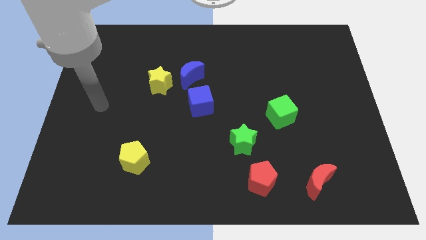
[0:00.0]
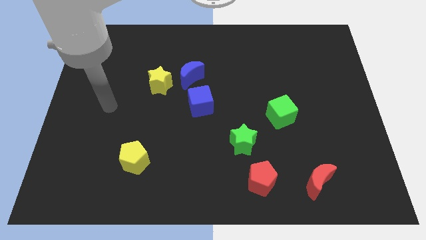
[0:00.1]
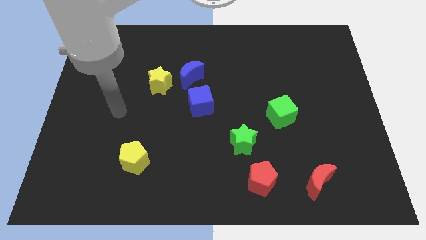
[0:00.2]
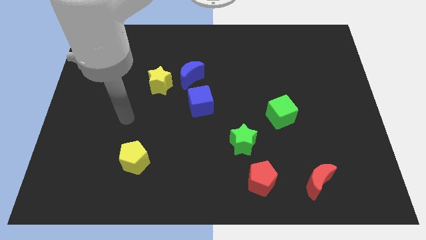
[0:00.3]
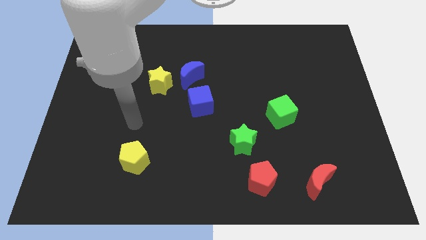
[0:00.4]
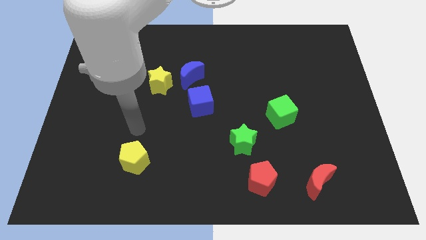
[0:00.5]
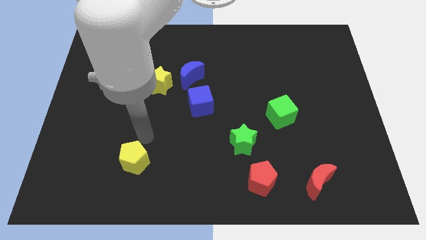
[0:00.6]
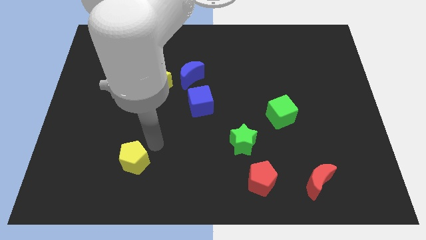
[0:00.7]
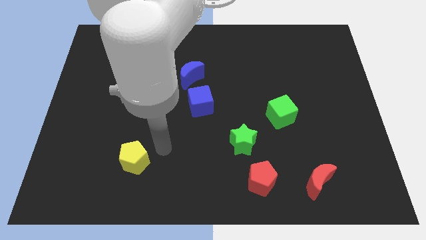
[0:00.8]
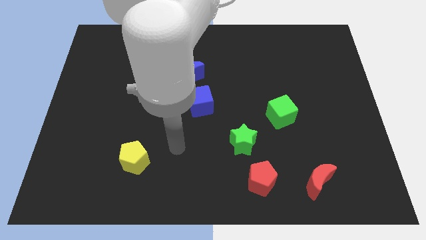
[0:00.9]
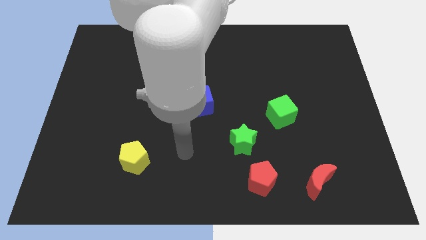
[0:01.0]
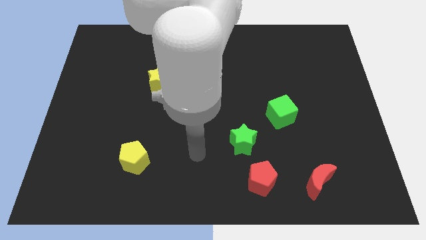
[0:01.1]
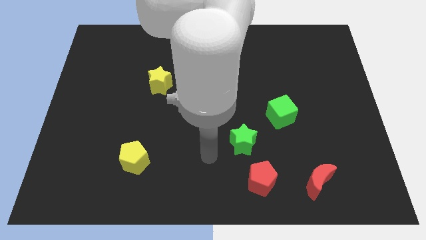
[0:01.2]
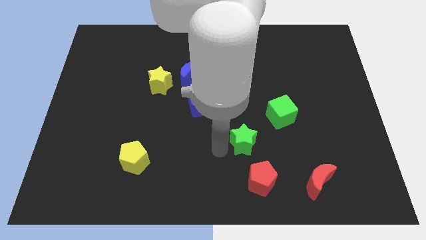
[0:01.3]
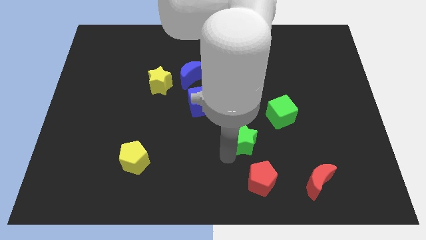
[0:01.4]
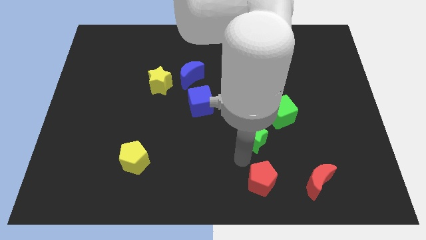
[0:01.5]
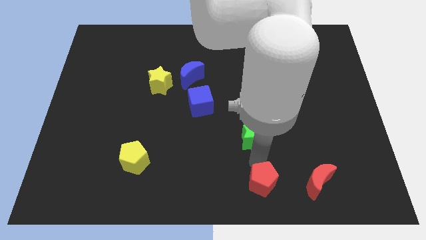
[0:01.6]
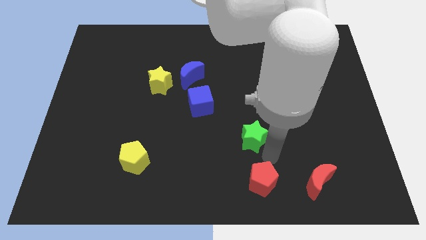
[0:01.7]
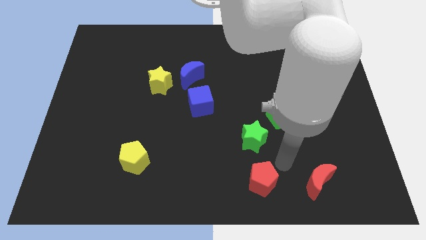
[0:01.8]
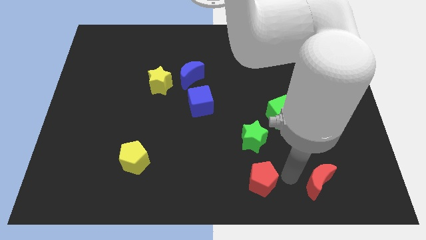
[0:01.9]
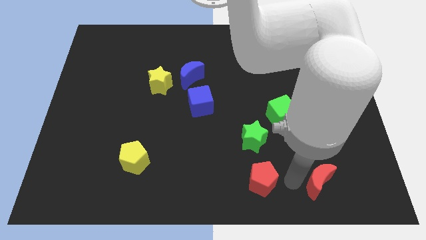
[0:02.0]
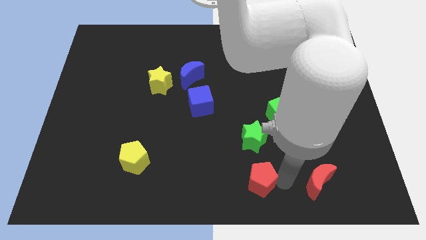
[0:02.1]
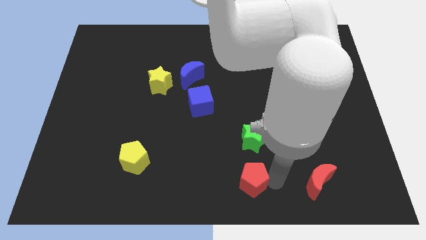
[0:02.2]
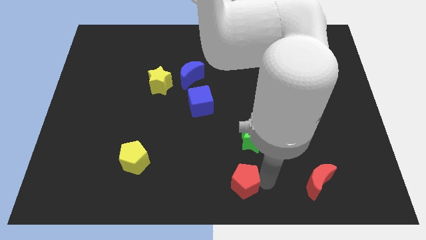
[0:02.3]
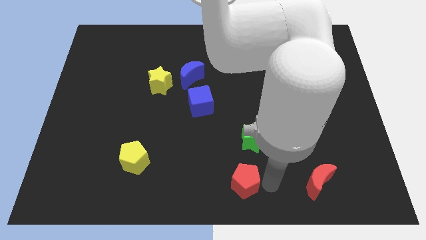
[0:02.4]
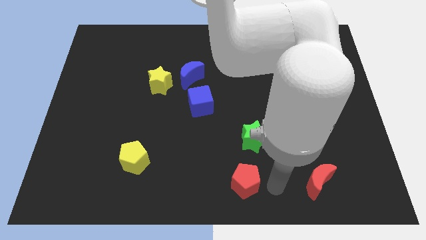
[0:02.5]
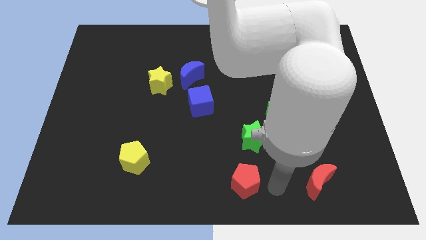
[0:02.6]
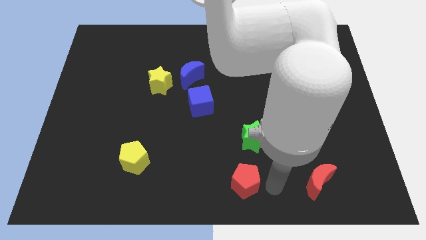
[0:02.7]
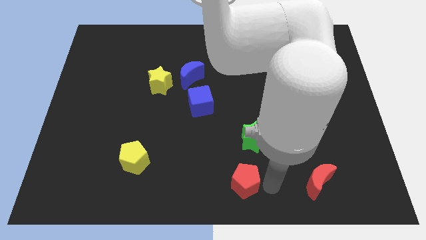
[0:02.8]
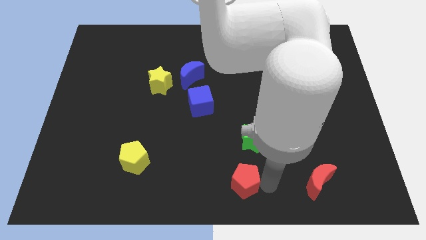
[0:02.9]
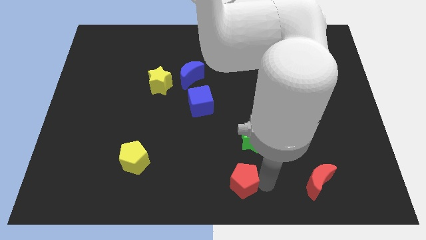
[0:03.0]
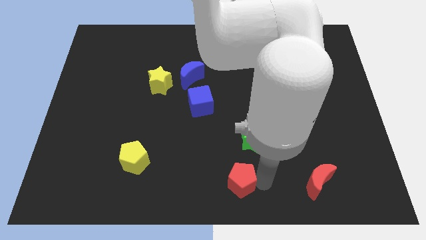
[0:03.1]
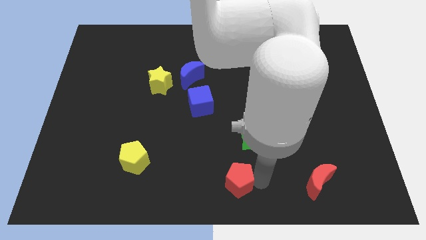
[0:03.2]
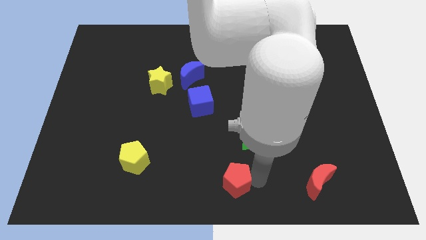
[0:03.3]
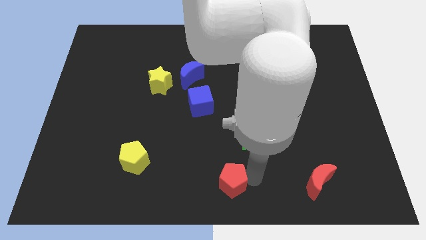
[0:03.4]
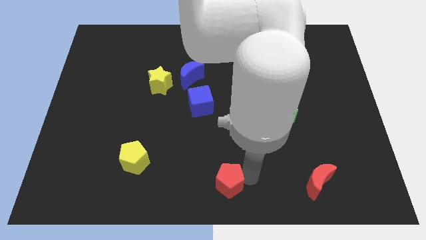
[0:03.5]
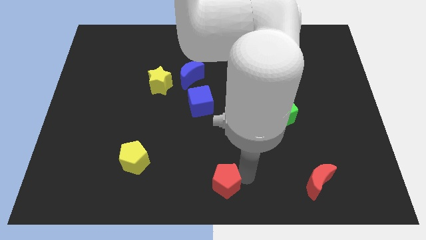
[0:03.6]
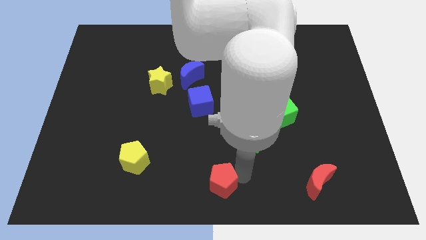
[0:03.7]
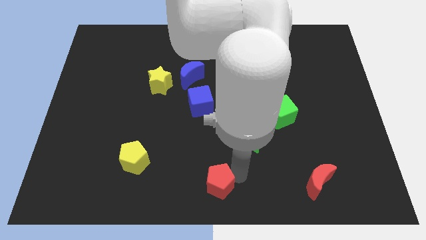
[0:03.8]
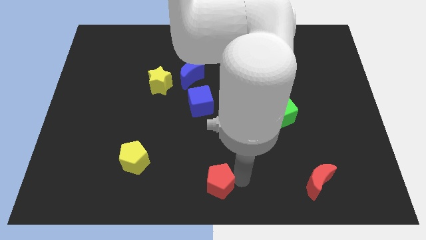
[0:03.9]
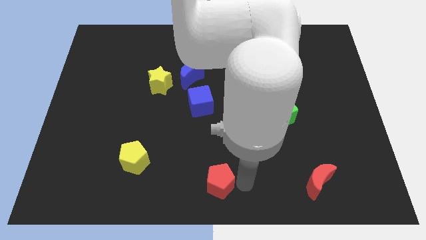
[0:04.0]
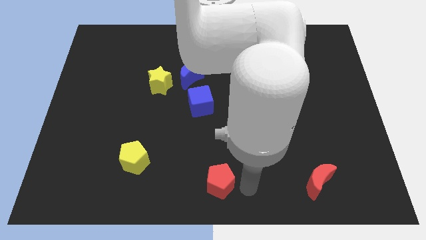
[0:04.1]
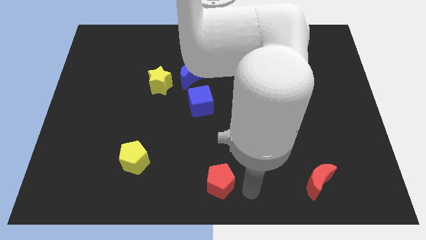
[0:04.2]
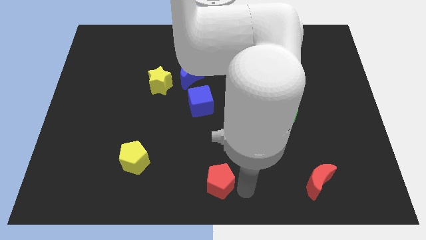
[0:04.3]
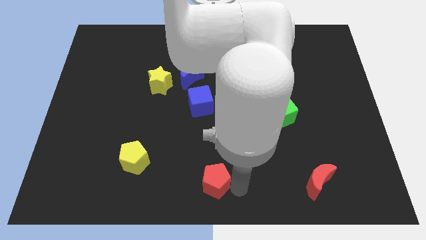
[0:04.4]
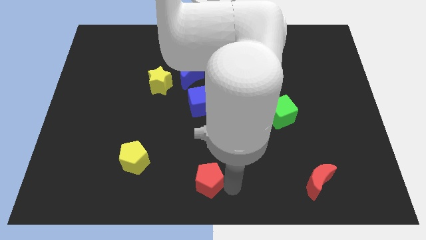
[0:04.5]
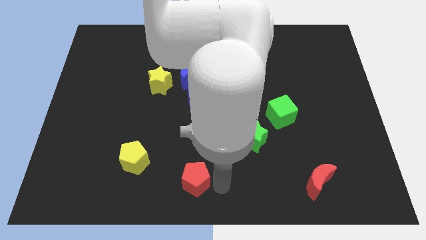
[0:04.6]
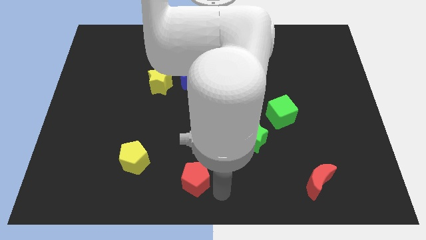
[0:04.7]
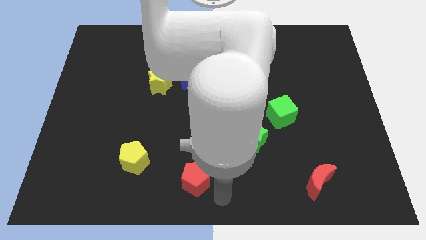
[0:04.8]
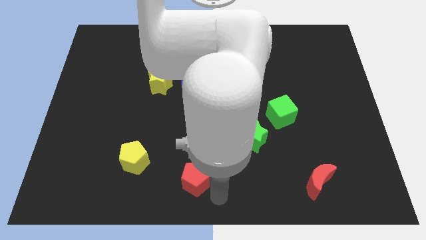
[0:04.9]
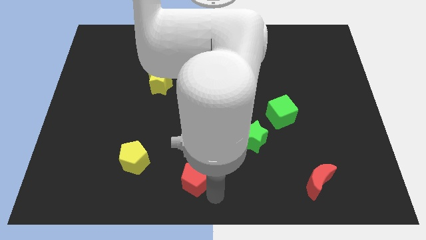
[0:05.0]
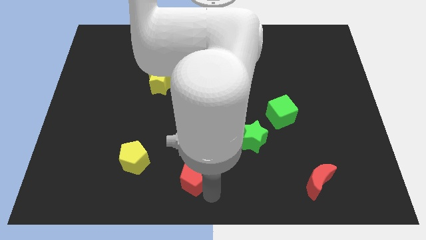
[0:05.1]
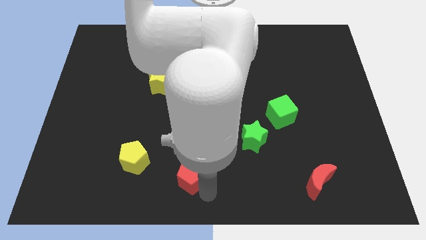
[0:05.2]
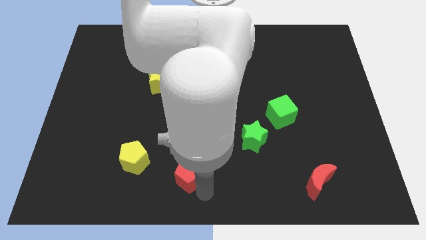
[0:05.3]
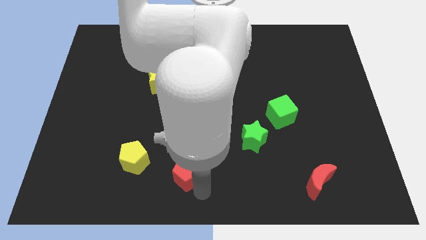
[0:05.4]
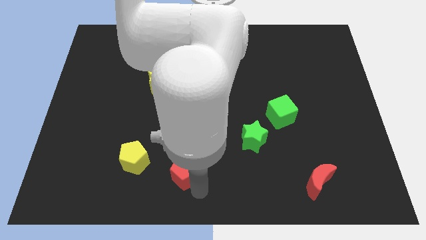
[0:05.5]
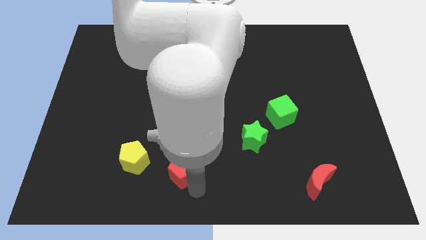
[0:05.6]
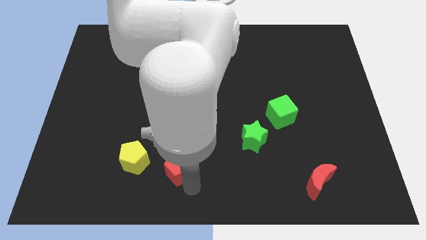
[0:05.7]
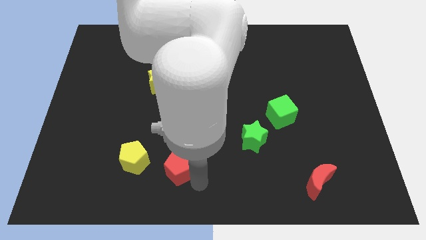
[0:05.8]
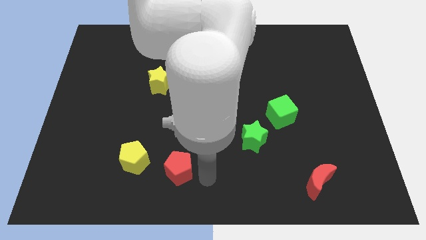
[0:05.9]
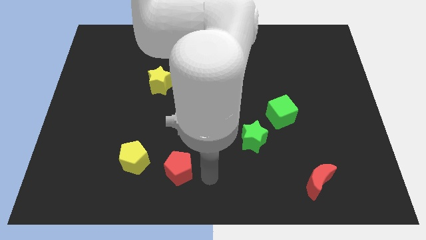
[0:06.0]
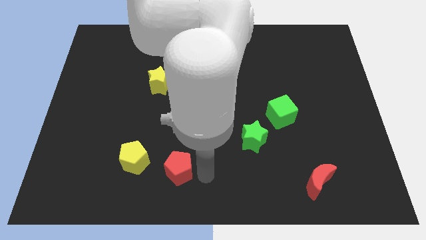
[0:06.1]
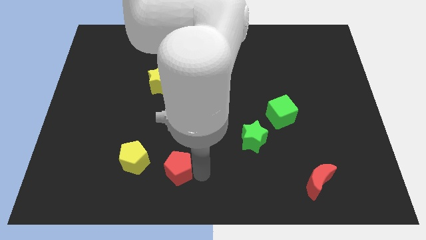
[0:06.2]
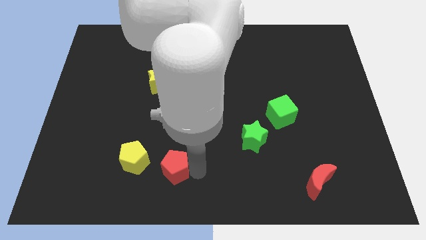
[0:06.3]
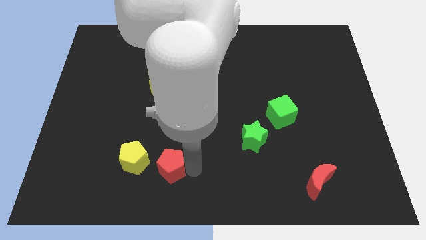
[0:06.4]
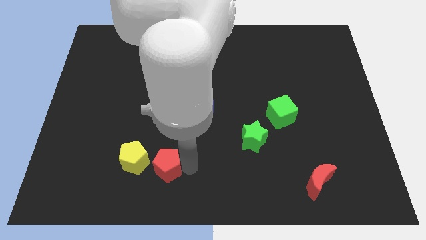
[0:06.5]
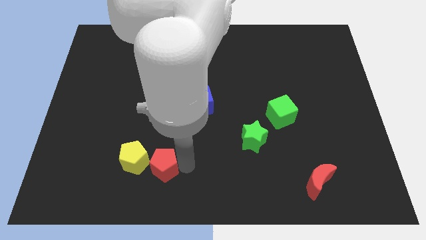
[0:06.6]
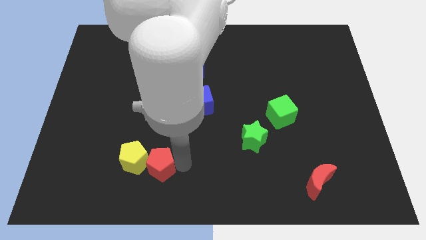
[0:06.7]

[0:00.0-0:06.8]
slide the red pentagon close to the yellow pentagon
